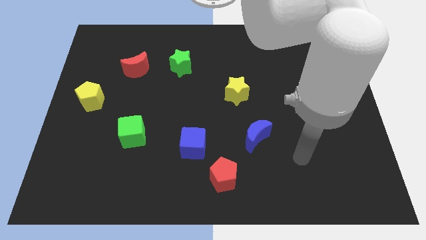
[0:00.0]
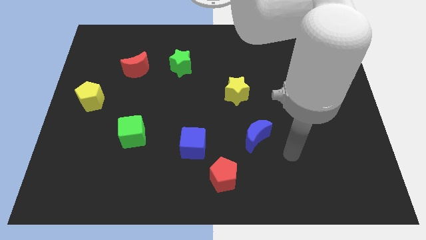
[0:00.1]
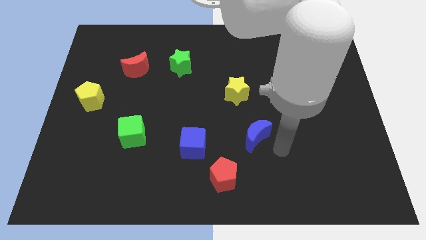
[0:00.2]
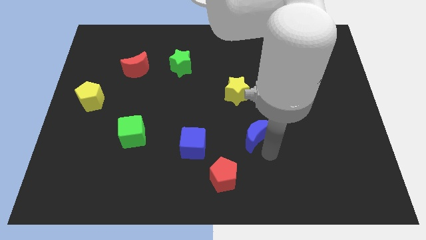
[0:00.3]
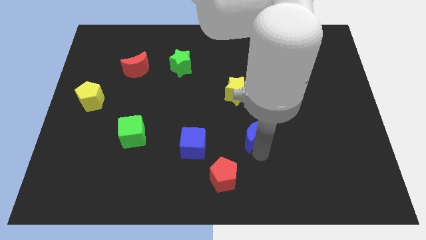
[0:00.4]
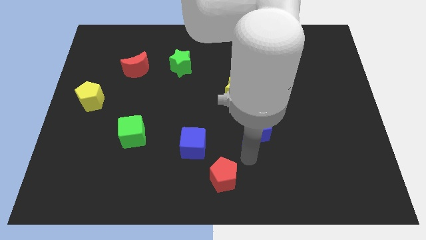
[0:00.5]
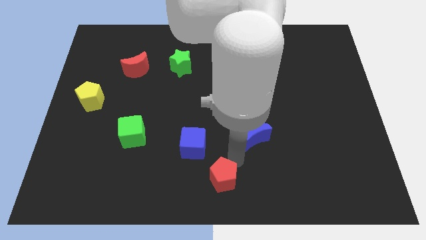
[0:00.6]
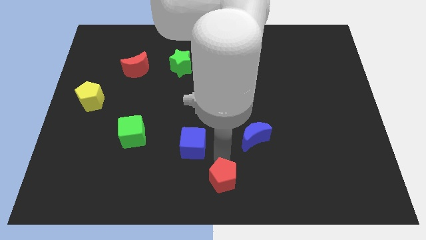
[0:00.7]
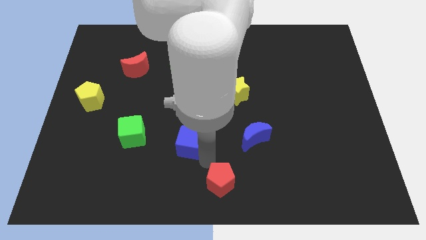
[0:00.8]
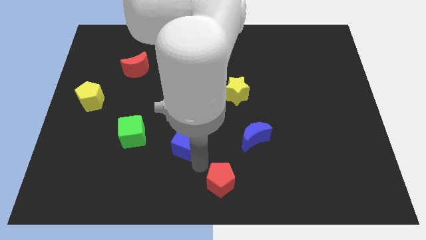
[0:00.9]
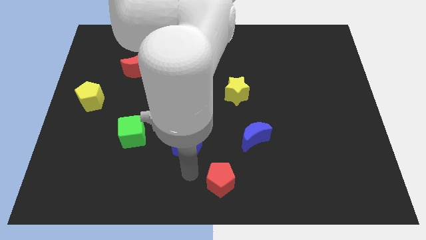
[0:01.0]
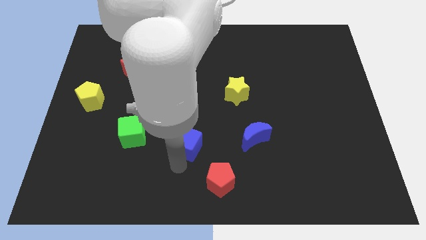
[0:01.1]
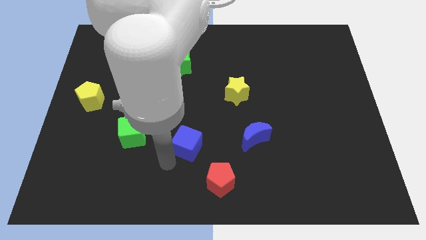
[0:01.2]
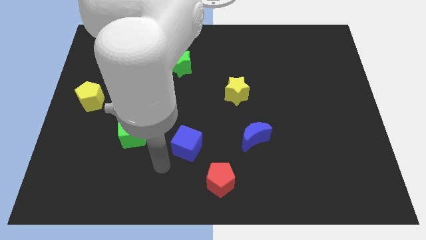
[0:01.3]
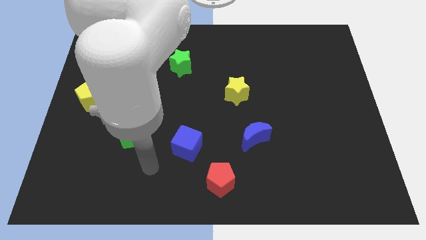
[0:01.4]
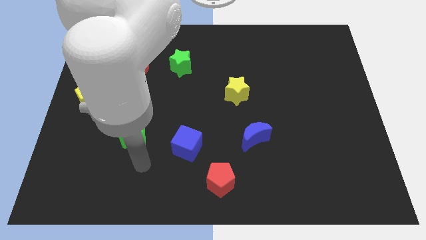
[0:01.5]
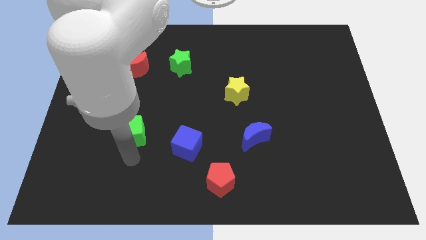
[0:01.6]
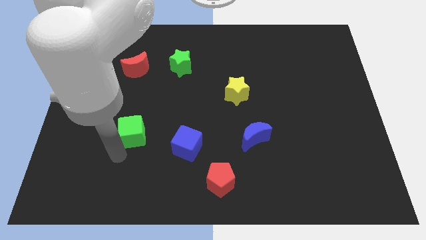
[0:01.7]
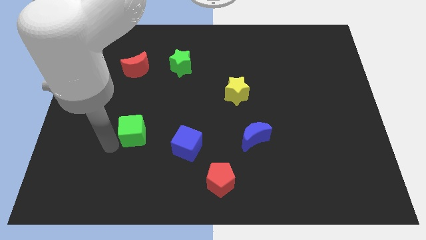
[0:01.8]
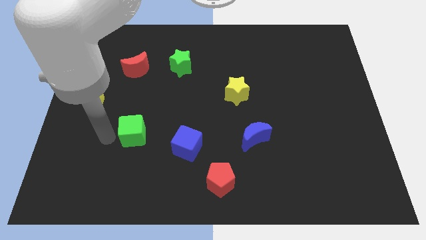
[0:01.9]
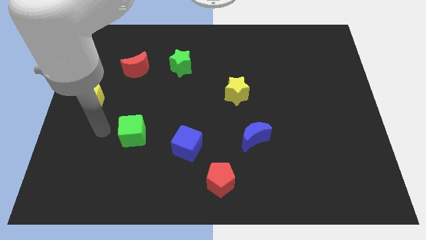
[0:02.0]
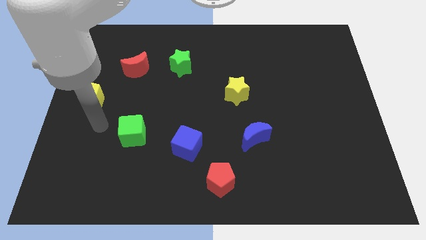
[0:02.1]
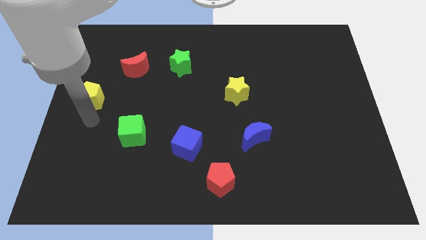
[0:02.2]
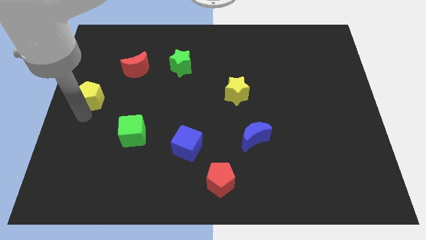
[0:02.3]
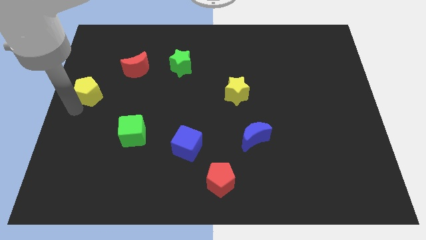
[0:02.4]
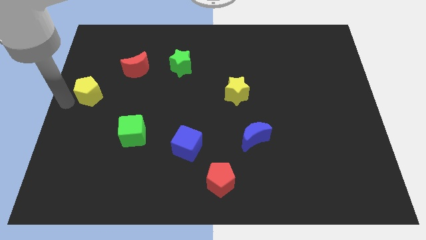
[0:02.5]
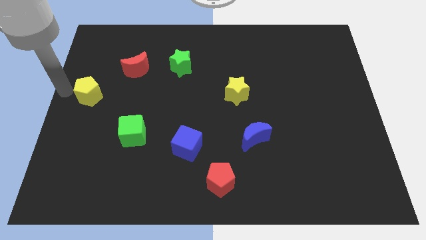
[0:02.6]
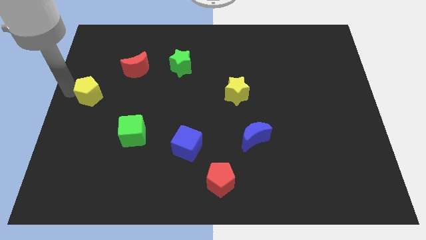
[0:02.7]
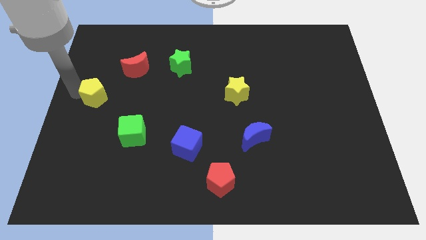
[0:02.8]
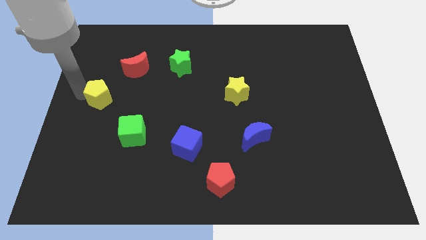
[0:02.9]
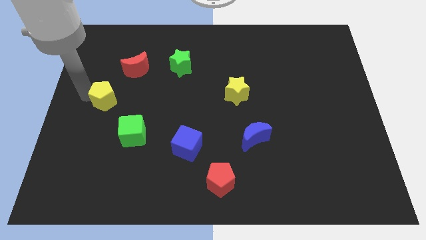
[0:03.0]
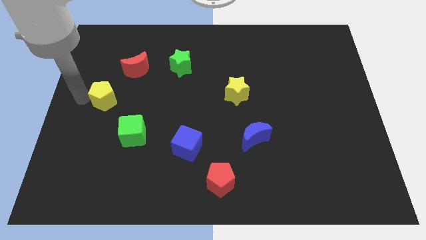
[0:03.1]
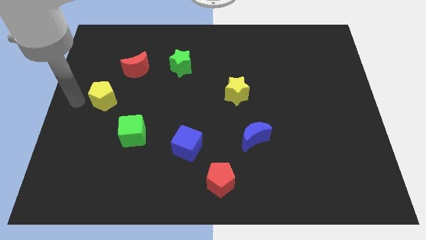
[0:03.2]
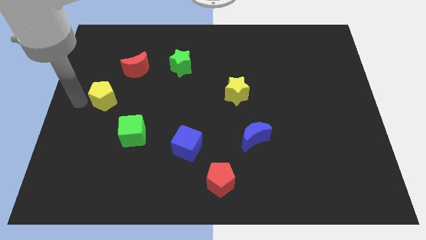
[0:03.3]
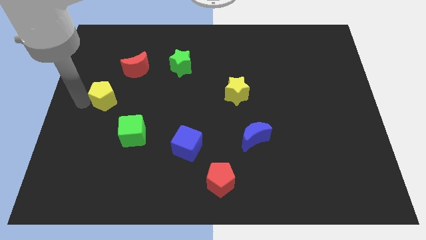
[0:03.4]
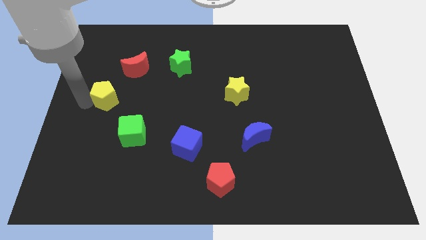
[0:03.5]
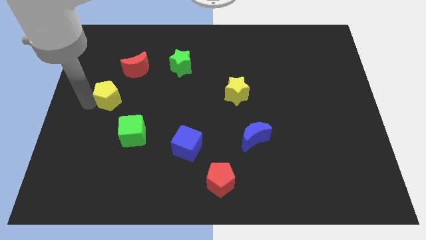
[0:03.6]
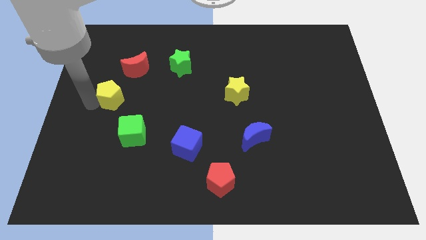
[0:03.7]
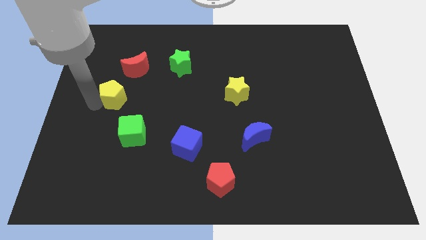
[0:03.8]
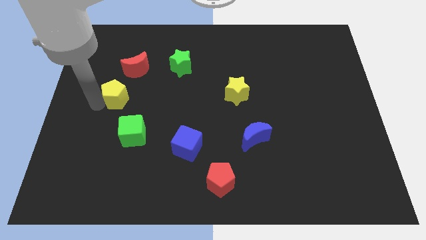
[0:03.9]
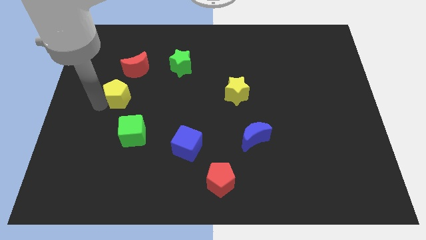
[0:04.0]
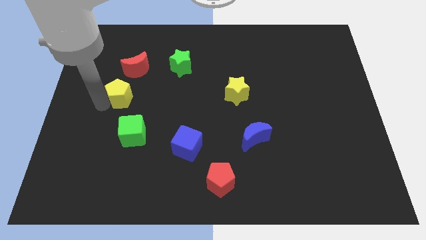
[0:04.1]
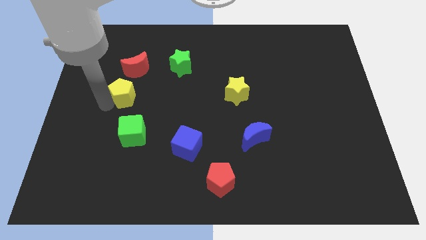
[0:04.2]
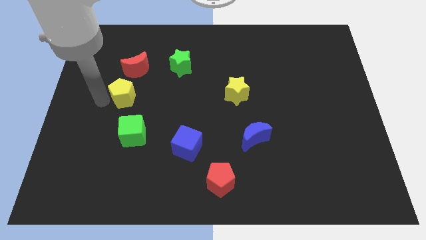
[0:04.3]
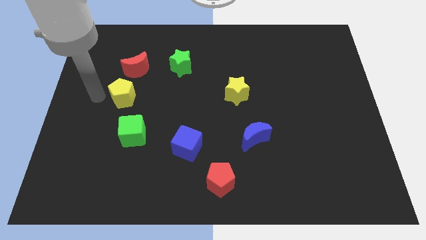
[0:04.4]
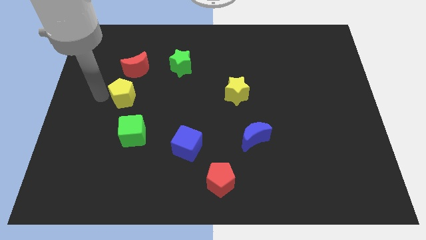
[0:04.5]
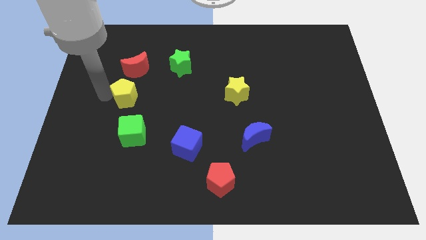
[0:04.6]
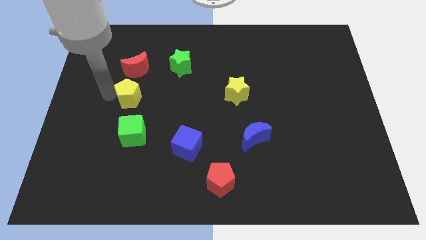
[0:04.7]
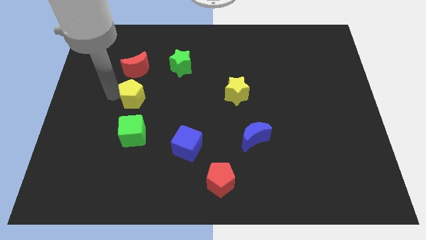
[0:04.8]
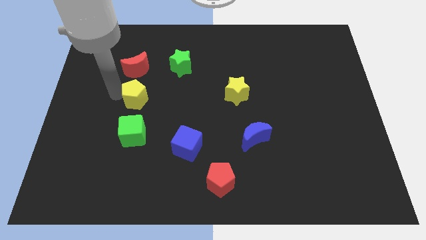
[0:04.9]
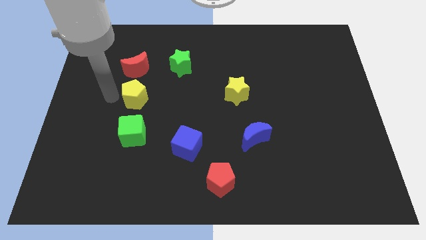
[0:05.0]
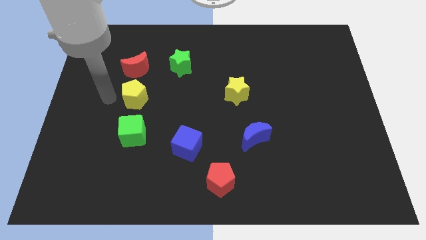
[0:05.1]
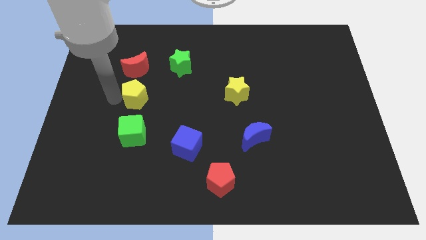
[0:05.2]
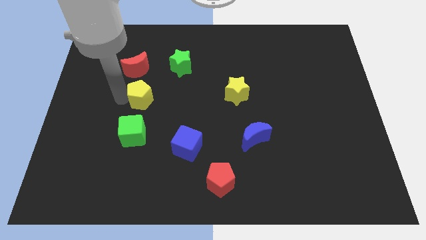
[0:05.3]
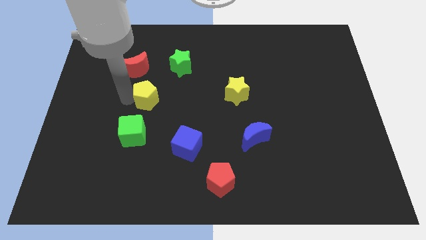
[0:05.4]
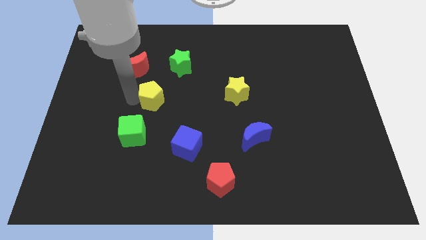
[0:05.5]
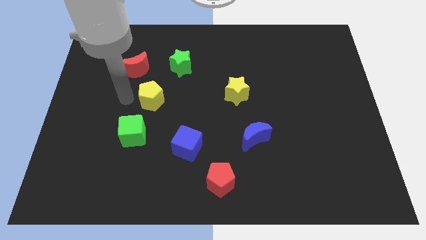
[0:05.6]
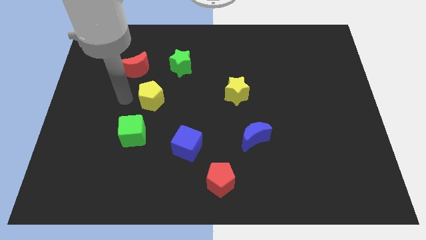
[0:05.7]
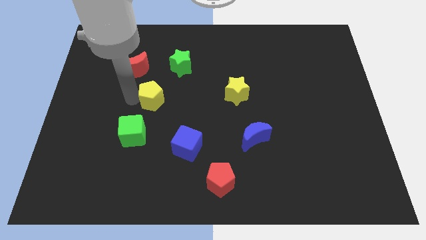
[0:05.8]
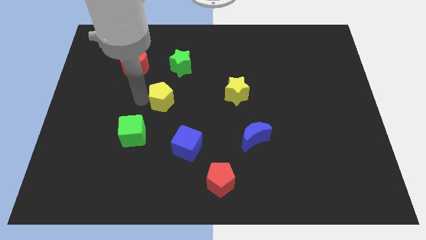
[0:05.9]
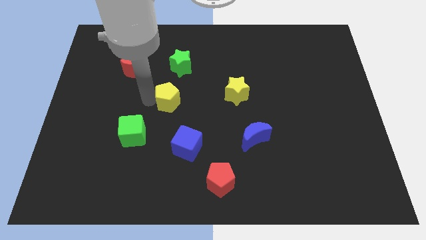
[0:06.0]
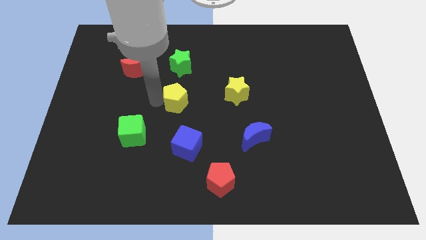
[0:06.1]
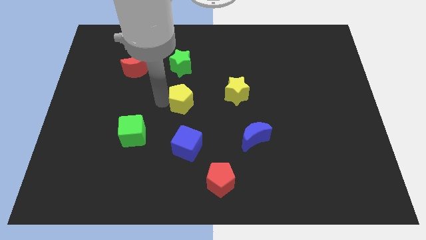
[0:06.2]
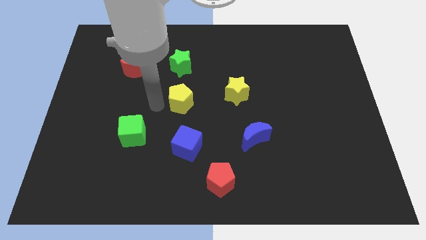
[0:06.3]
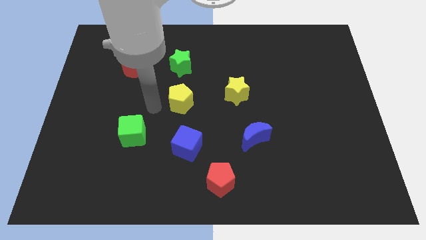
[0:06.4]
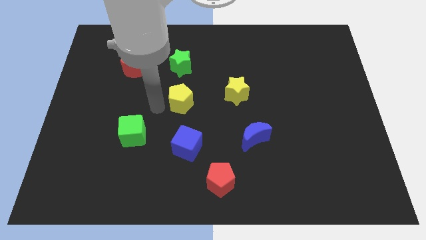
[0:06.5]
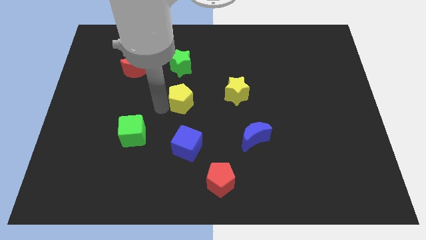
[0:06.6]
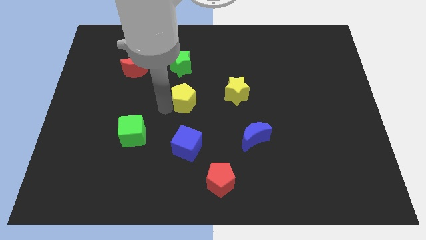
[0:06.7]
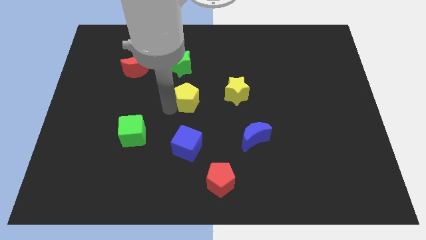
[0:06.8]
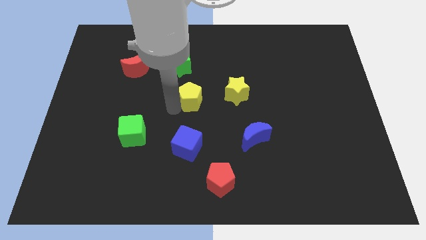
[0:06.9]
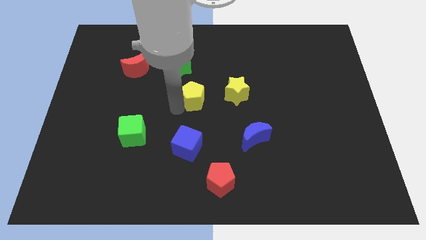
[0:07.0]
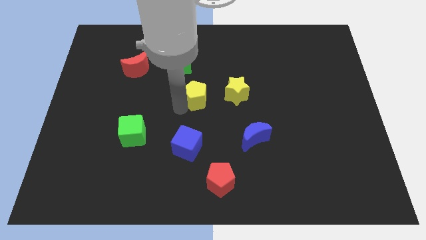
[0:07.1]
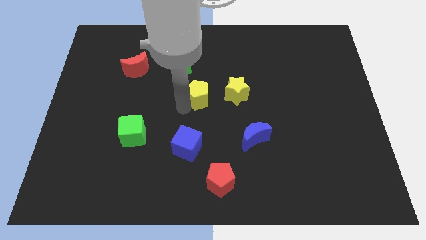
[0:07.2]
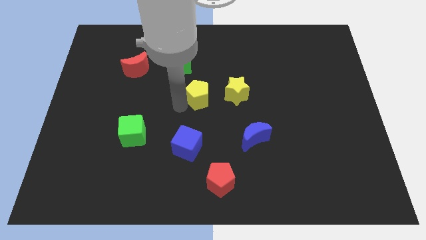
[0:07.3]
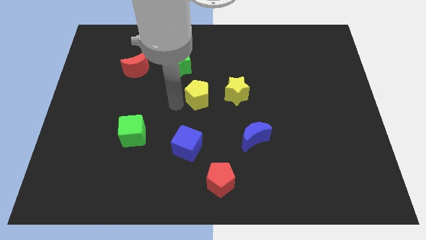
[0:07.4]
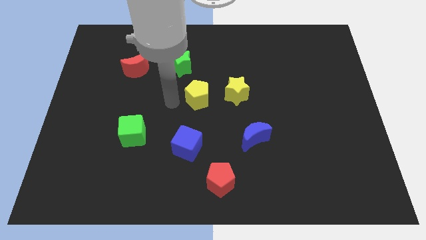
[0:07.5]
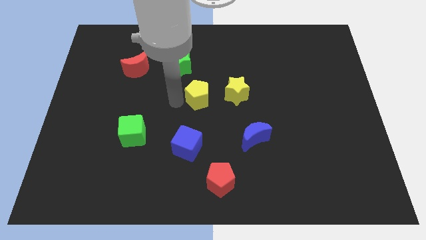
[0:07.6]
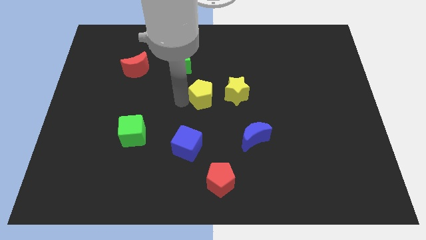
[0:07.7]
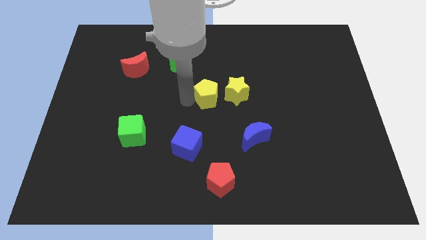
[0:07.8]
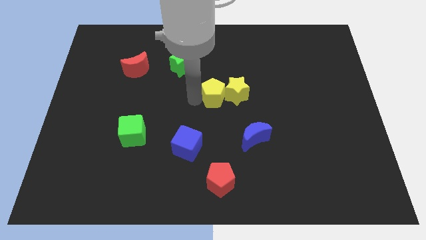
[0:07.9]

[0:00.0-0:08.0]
put the yellow pentagon towards the yellow star
